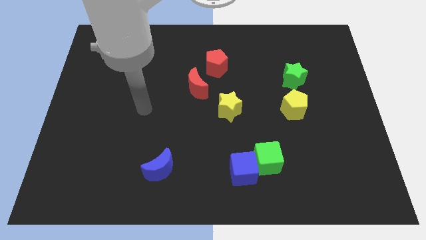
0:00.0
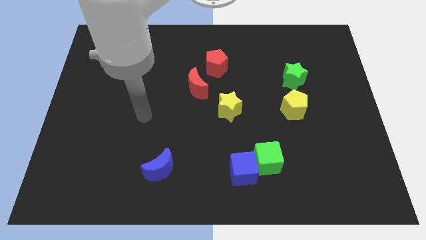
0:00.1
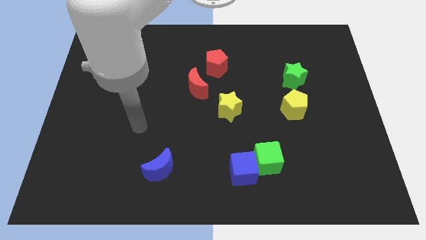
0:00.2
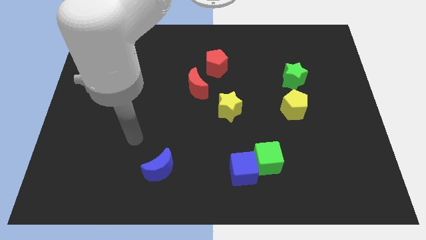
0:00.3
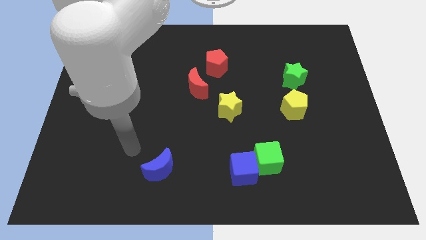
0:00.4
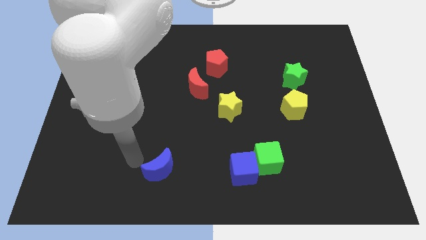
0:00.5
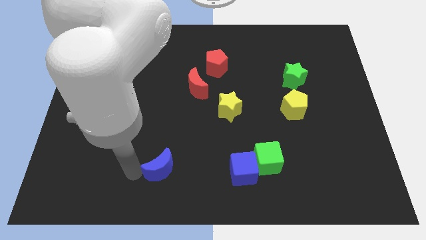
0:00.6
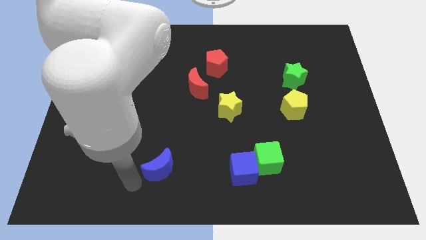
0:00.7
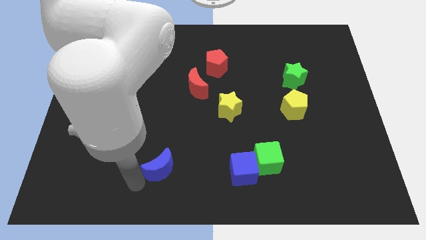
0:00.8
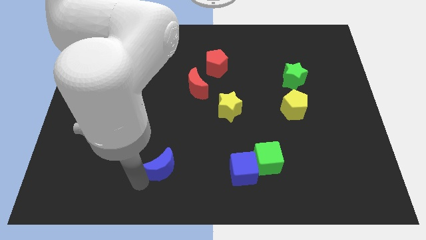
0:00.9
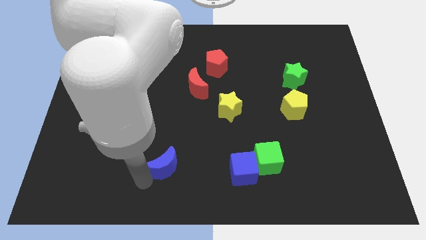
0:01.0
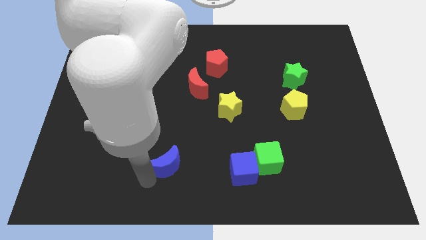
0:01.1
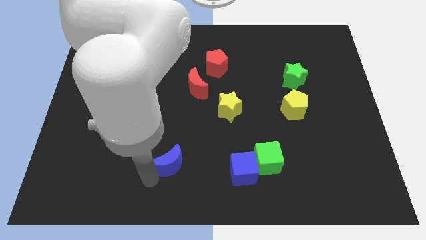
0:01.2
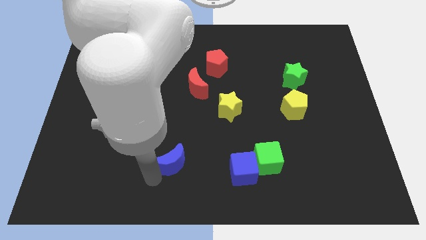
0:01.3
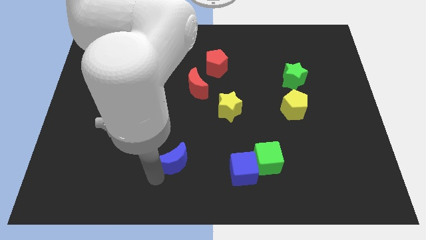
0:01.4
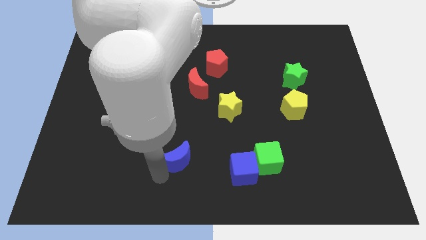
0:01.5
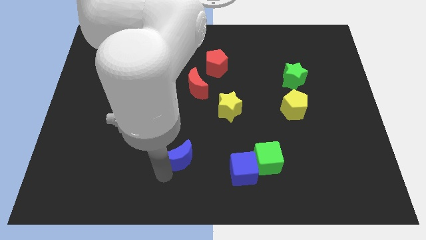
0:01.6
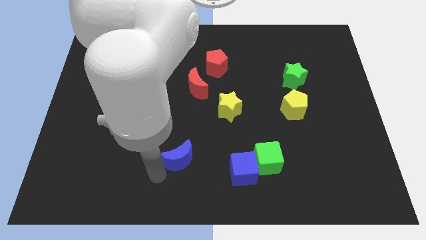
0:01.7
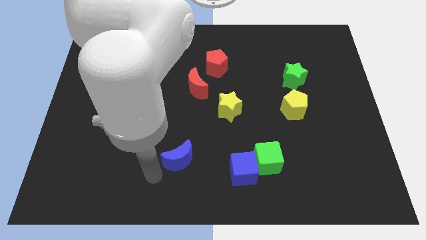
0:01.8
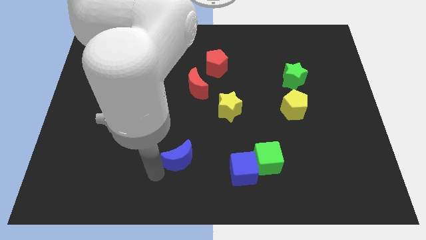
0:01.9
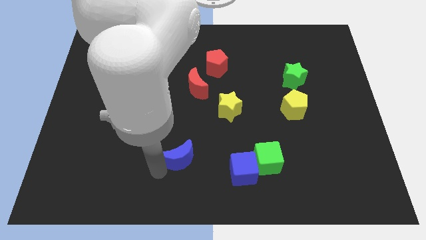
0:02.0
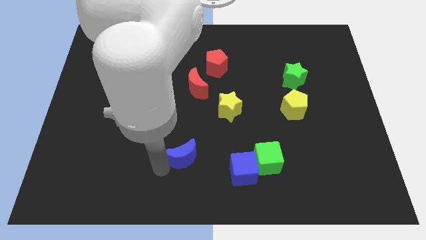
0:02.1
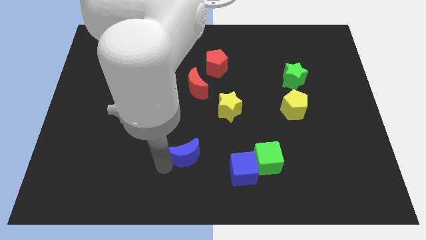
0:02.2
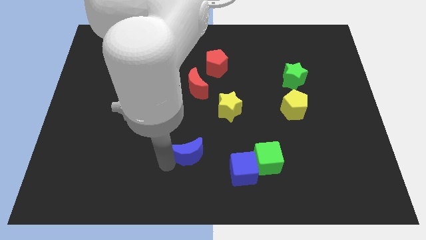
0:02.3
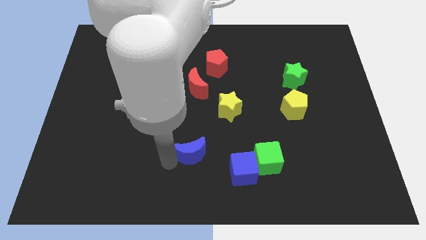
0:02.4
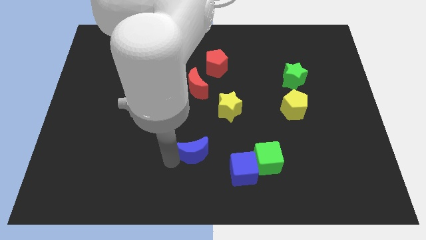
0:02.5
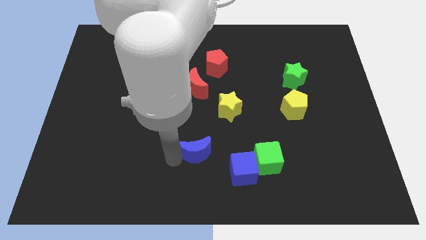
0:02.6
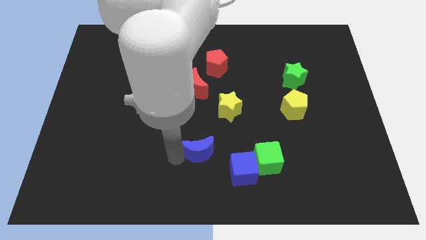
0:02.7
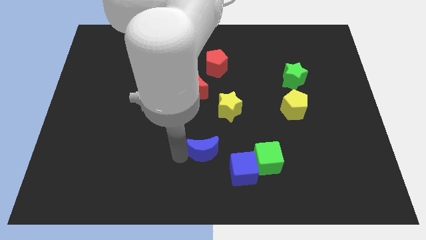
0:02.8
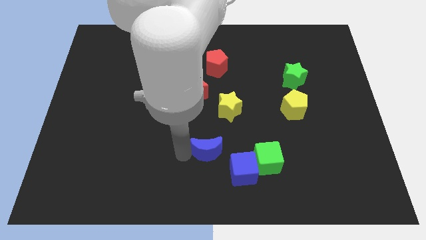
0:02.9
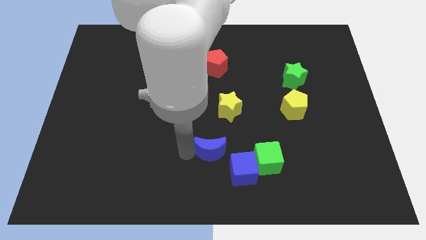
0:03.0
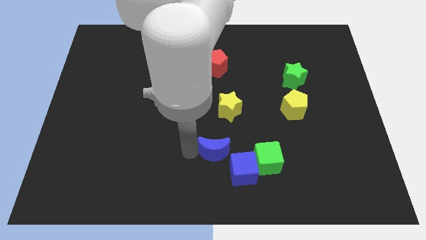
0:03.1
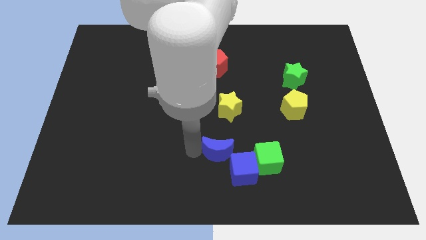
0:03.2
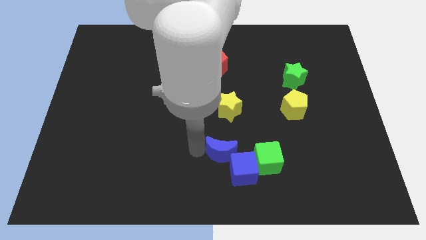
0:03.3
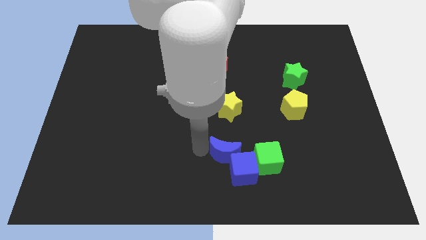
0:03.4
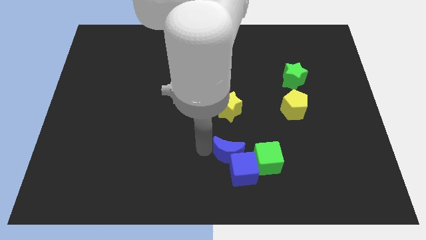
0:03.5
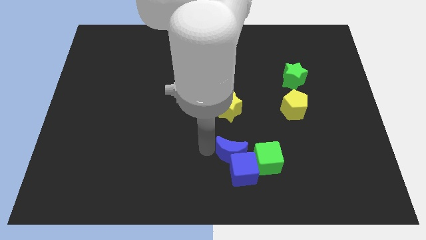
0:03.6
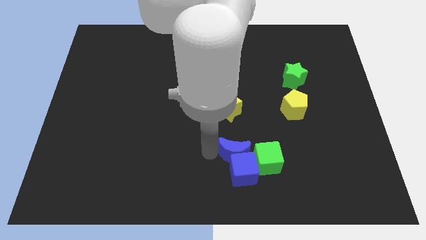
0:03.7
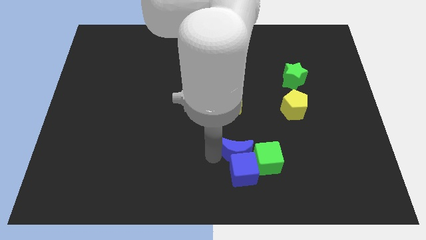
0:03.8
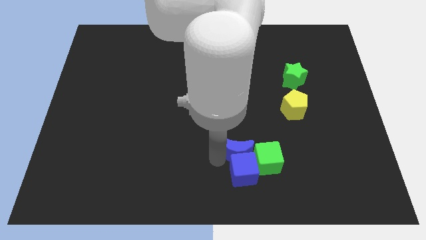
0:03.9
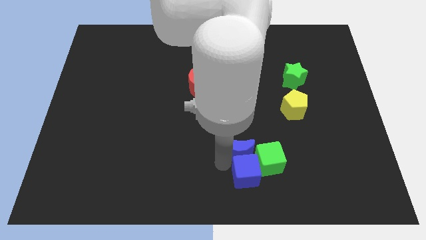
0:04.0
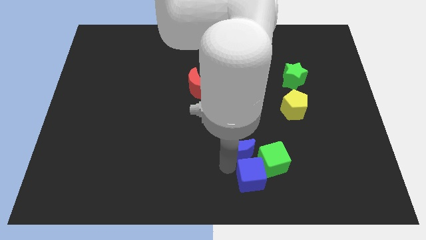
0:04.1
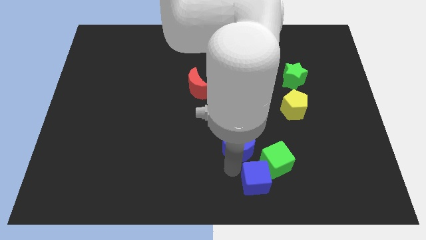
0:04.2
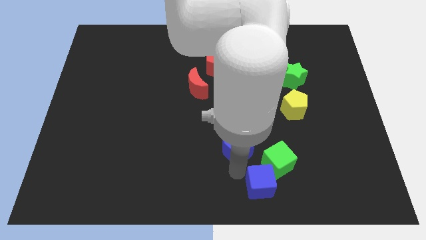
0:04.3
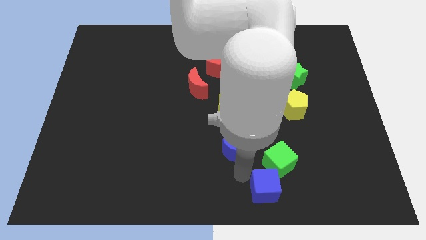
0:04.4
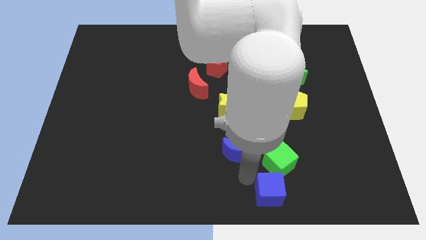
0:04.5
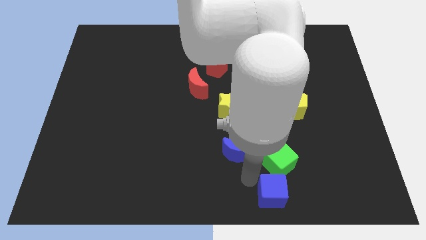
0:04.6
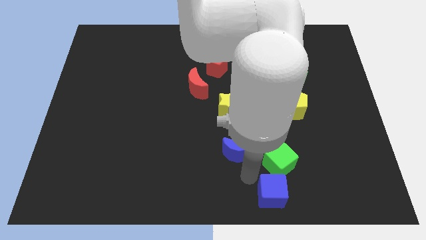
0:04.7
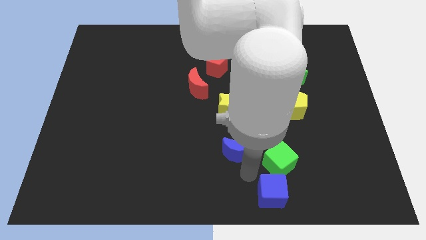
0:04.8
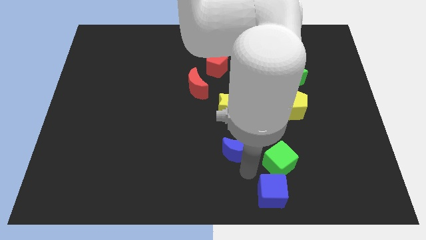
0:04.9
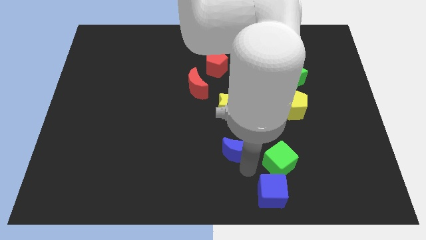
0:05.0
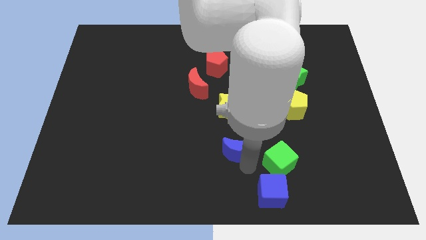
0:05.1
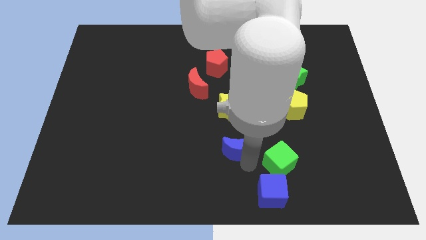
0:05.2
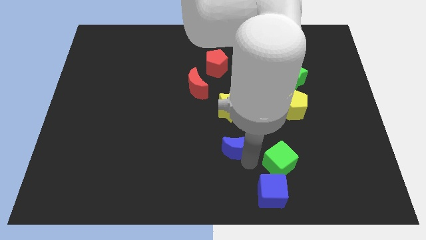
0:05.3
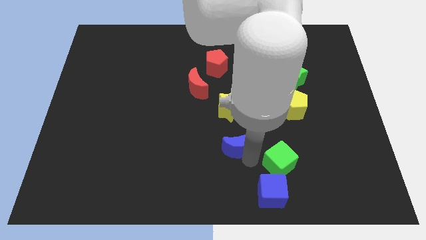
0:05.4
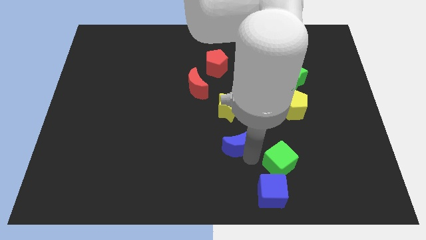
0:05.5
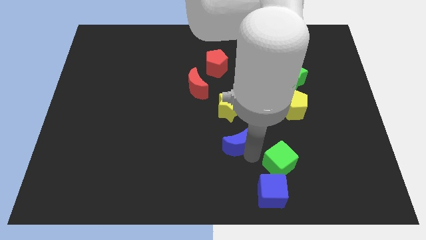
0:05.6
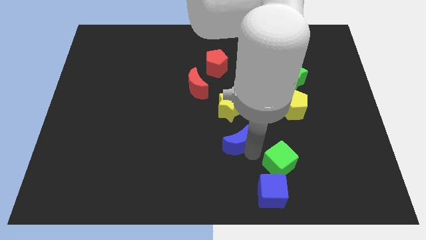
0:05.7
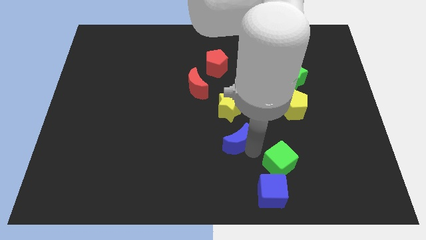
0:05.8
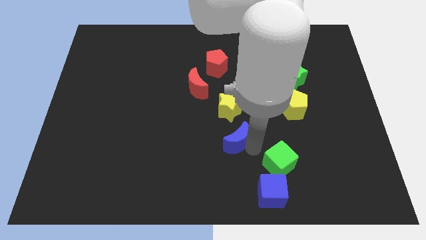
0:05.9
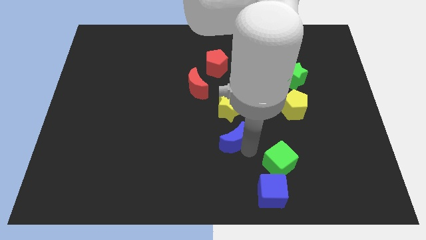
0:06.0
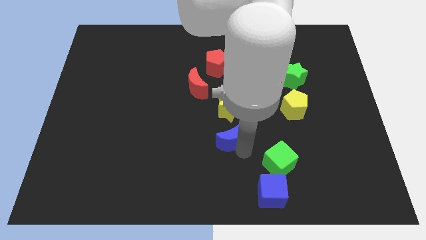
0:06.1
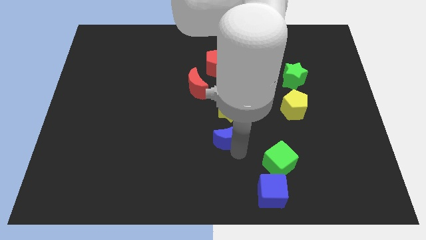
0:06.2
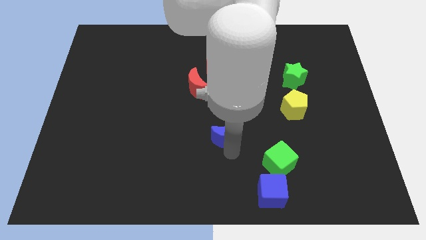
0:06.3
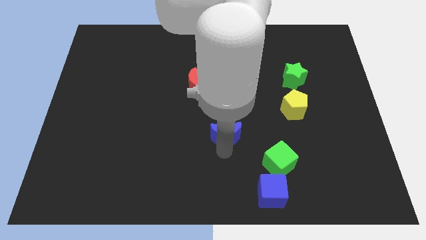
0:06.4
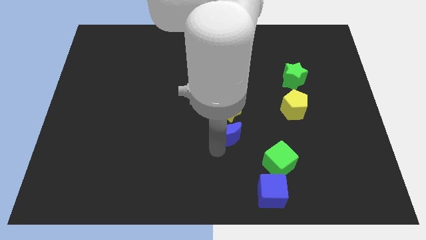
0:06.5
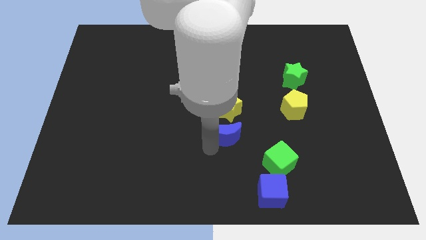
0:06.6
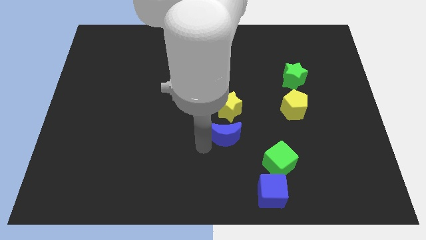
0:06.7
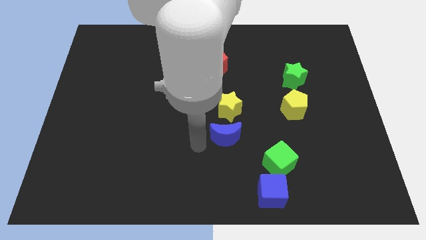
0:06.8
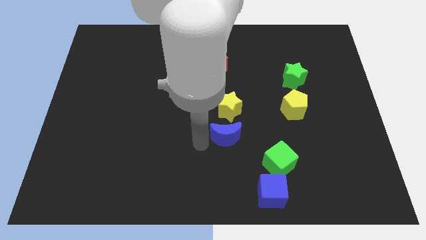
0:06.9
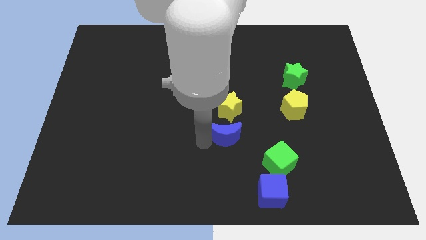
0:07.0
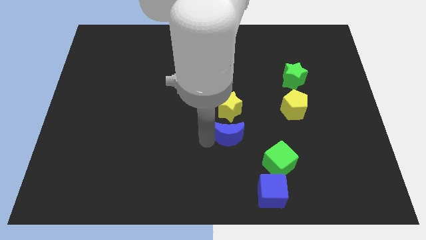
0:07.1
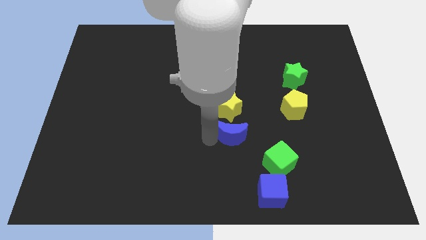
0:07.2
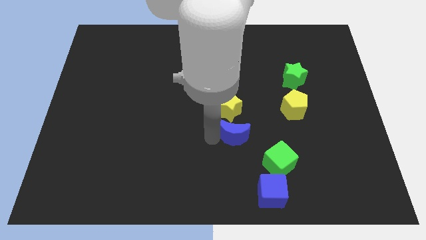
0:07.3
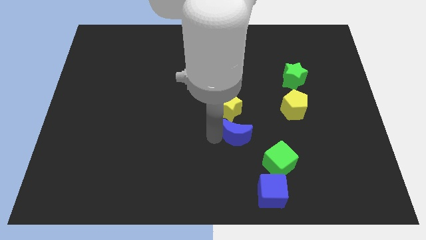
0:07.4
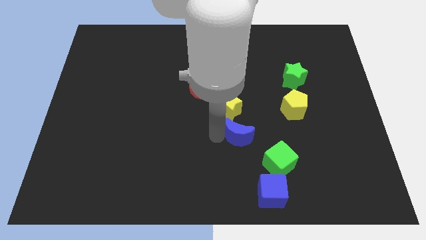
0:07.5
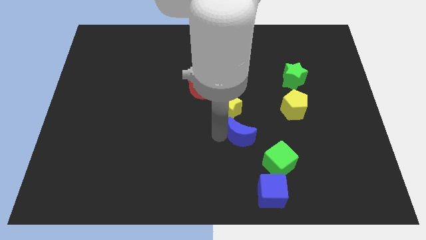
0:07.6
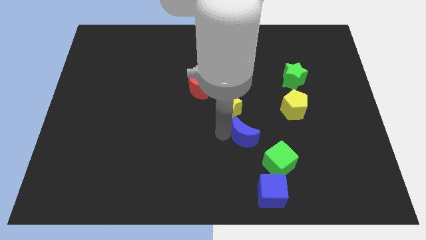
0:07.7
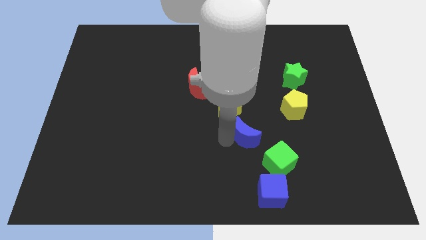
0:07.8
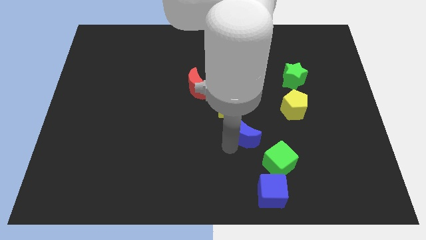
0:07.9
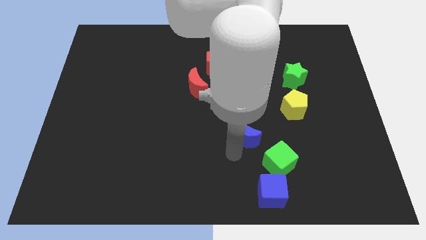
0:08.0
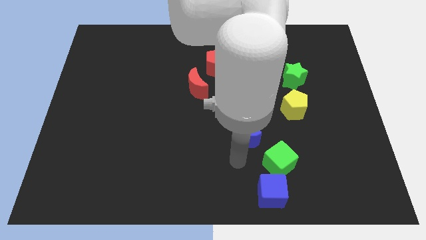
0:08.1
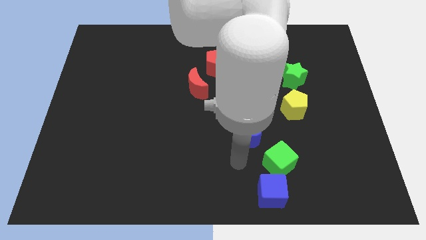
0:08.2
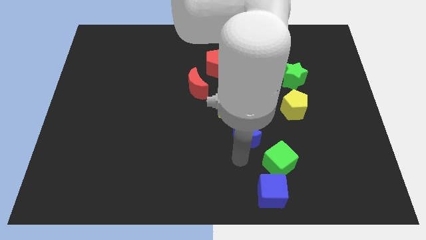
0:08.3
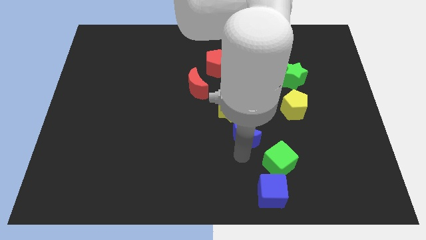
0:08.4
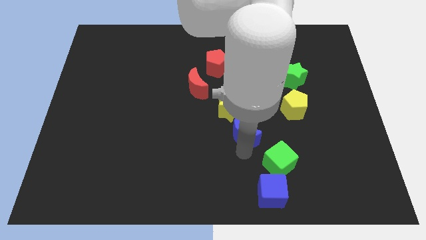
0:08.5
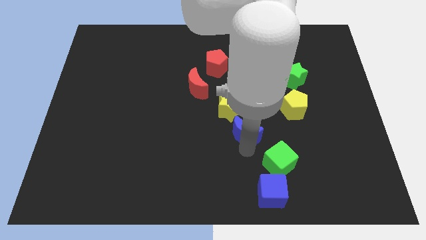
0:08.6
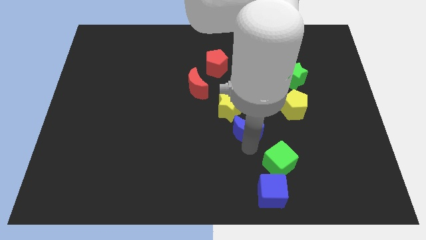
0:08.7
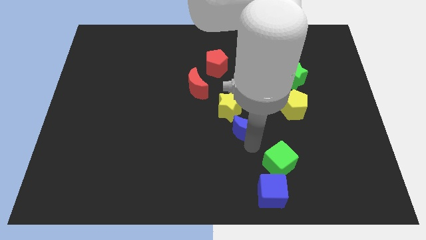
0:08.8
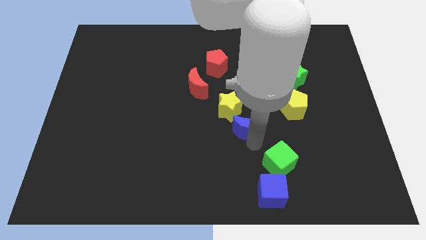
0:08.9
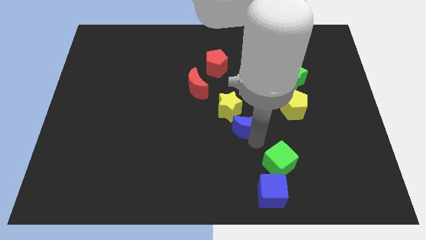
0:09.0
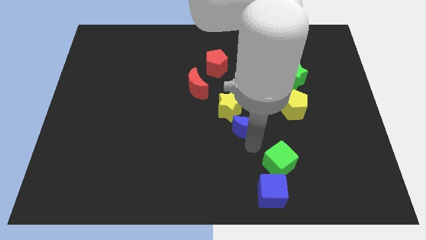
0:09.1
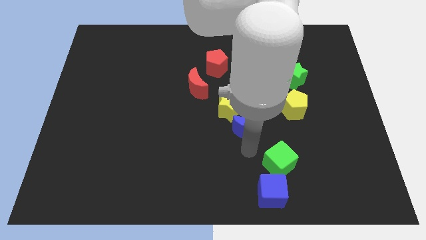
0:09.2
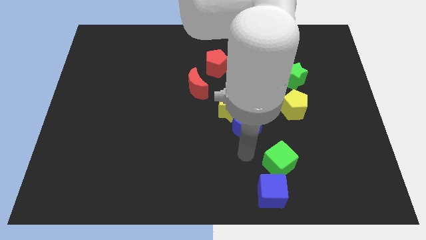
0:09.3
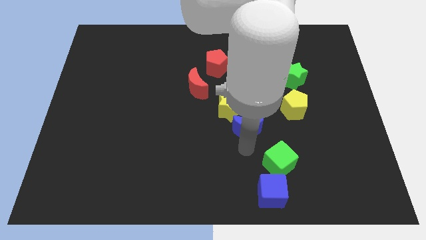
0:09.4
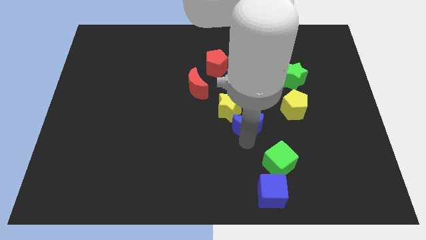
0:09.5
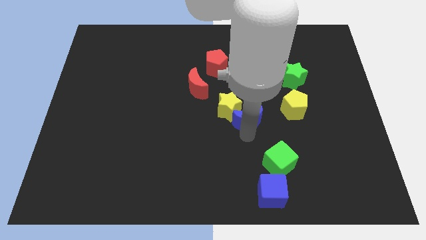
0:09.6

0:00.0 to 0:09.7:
put the blue moon to the left side of the yellow pentagon
